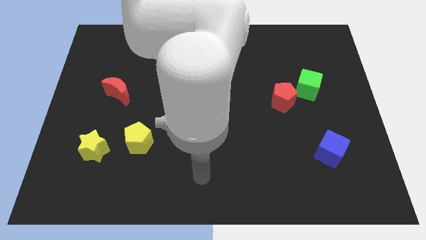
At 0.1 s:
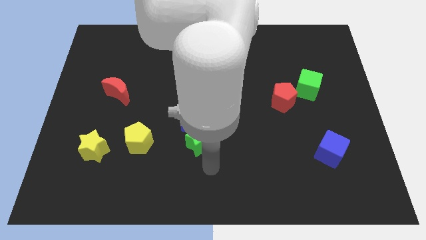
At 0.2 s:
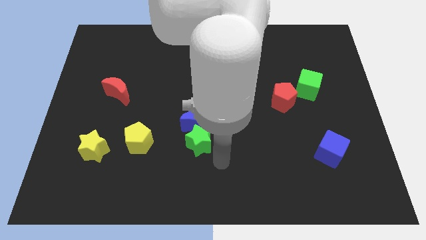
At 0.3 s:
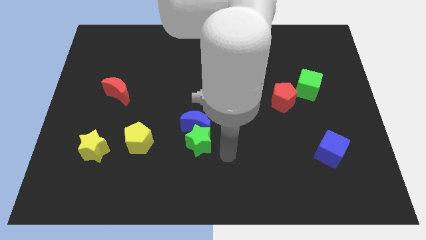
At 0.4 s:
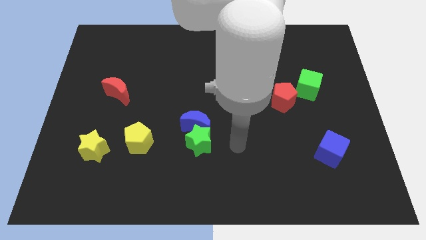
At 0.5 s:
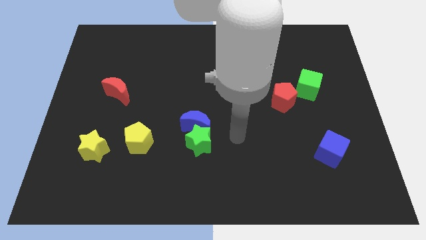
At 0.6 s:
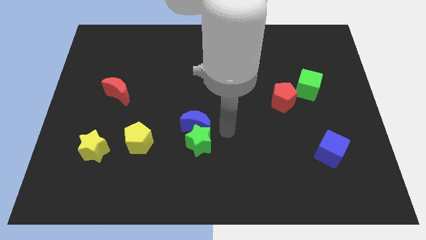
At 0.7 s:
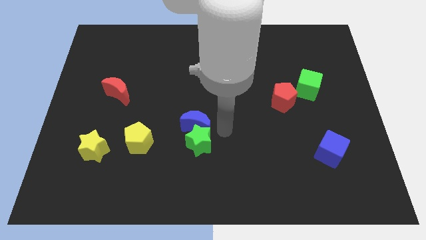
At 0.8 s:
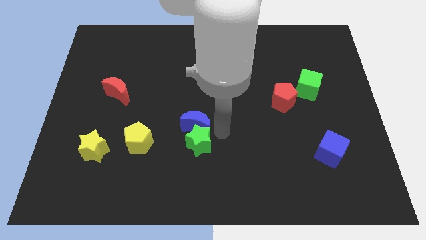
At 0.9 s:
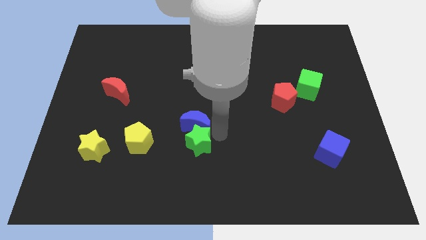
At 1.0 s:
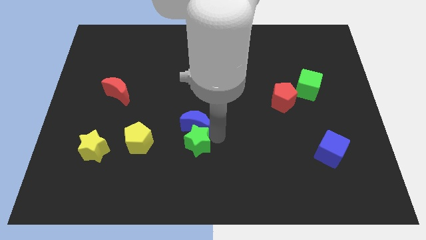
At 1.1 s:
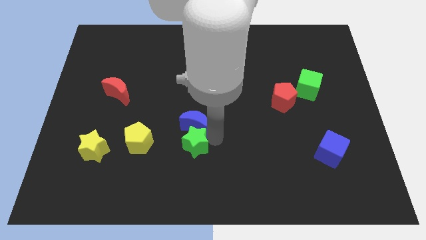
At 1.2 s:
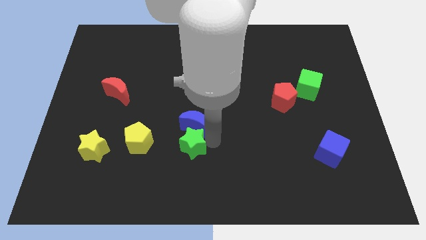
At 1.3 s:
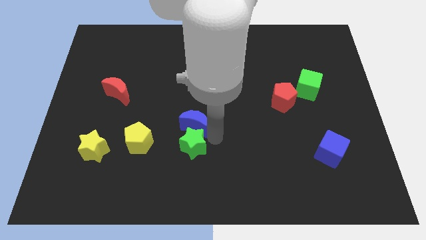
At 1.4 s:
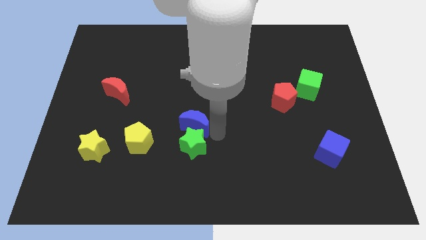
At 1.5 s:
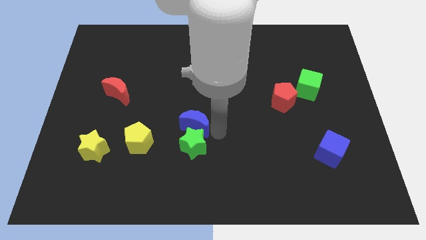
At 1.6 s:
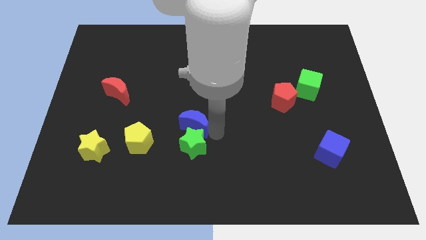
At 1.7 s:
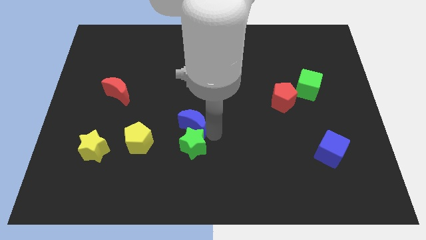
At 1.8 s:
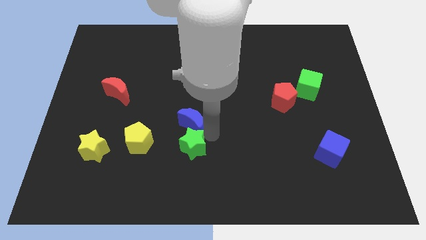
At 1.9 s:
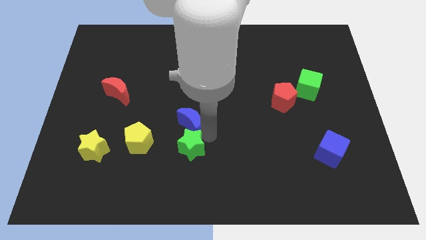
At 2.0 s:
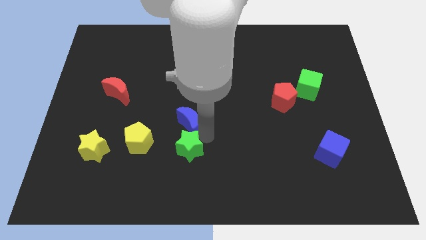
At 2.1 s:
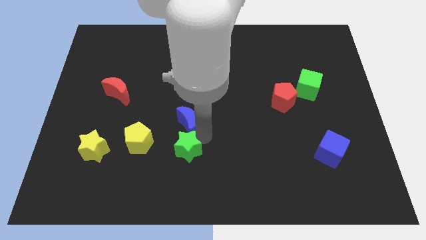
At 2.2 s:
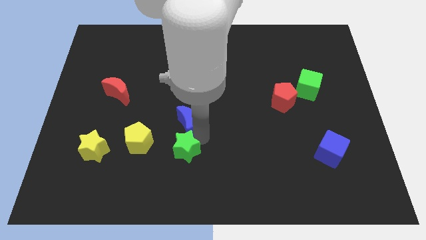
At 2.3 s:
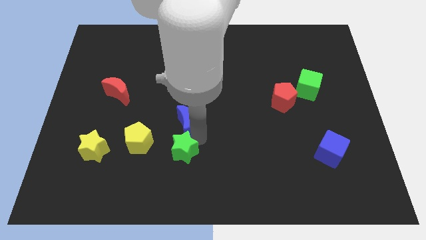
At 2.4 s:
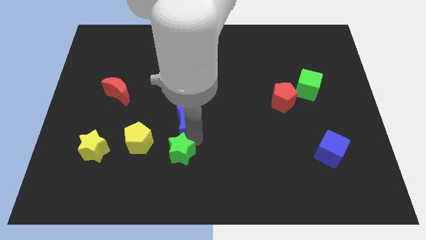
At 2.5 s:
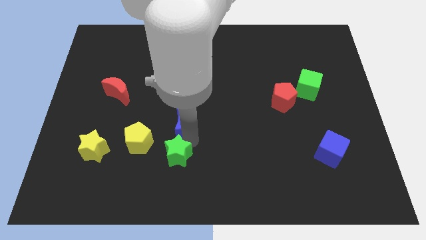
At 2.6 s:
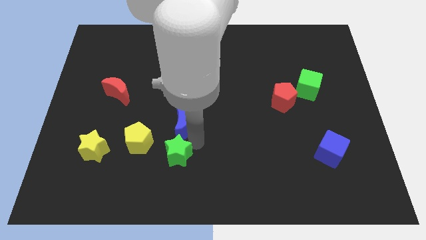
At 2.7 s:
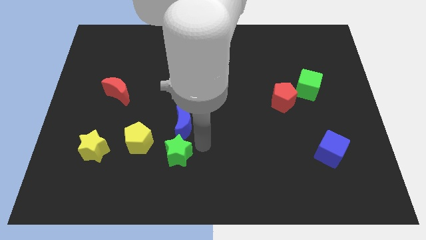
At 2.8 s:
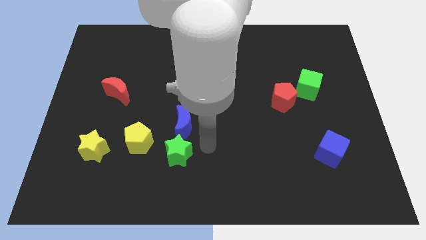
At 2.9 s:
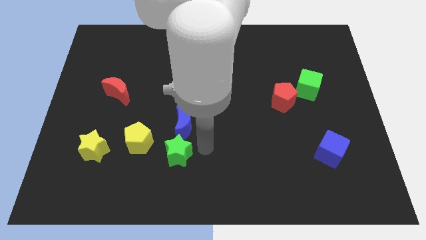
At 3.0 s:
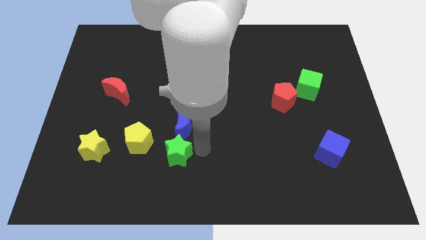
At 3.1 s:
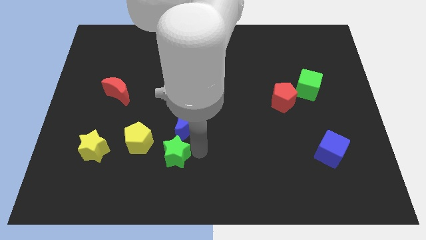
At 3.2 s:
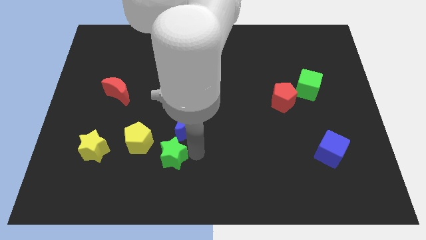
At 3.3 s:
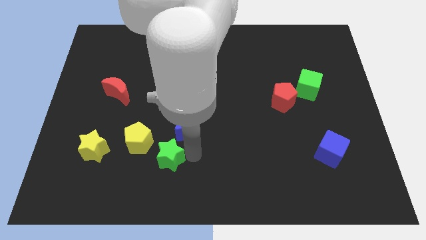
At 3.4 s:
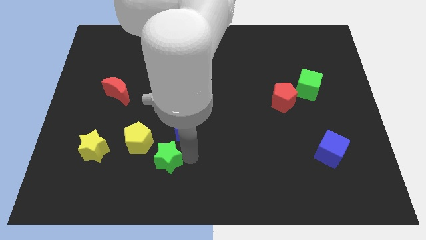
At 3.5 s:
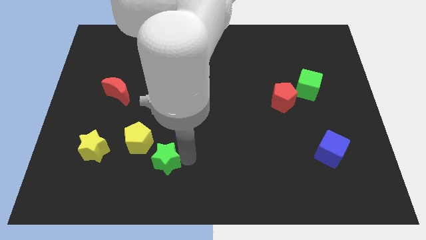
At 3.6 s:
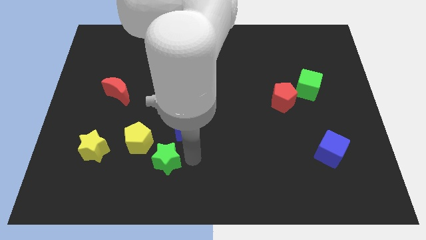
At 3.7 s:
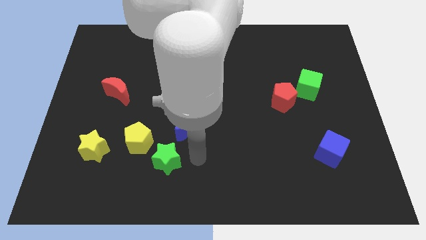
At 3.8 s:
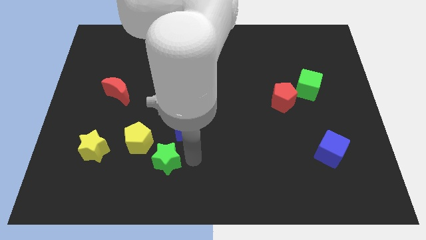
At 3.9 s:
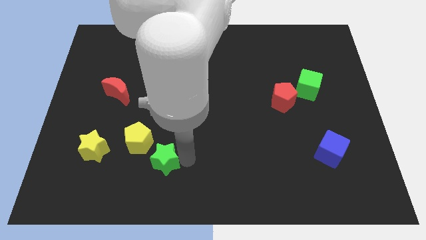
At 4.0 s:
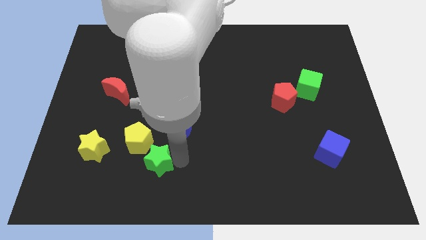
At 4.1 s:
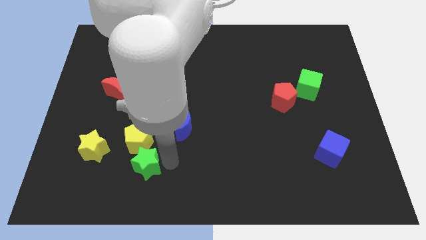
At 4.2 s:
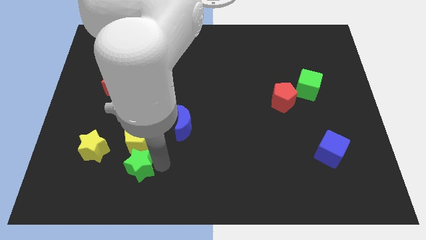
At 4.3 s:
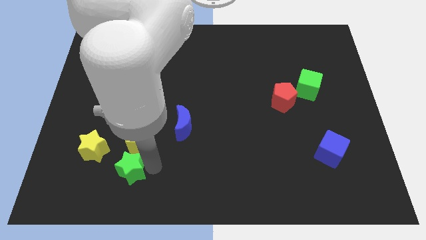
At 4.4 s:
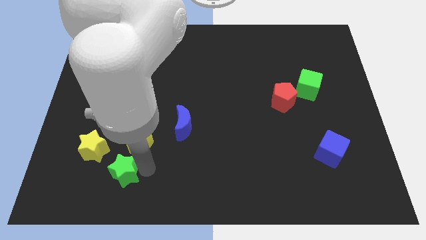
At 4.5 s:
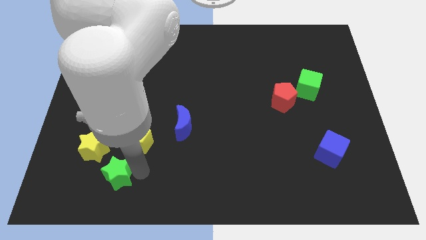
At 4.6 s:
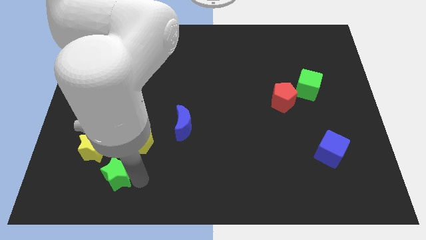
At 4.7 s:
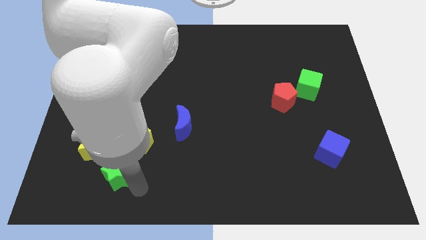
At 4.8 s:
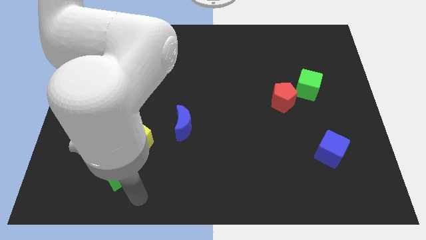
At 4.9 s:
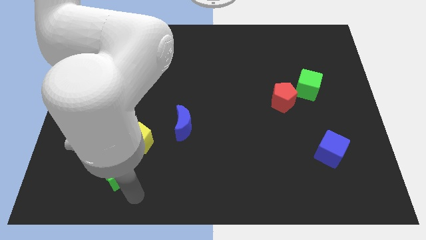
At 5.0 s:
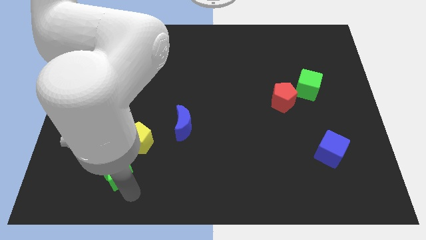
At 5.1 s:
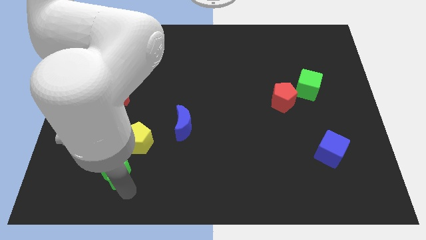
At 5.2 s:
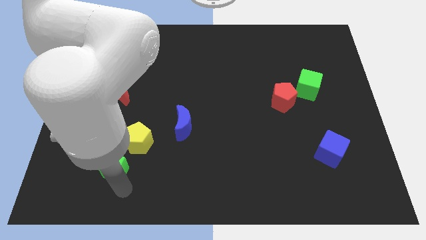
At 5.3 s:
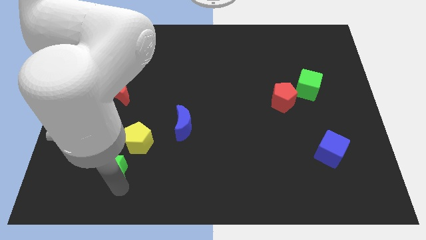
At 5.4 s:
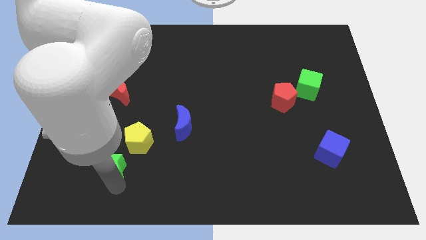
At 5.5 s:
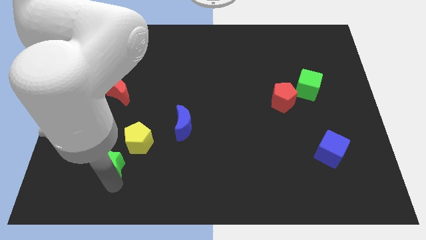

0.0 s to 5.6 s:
put the green star towards the yellow star

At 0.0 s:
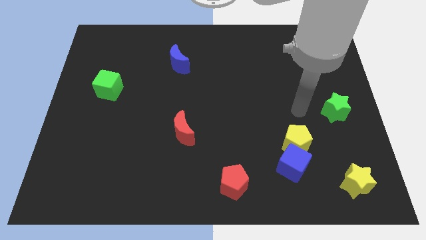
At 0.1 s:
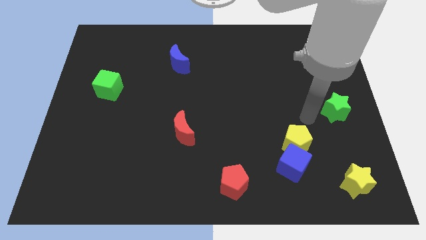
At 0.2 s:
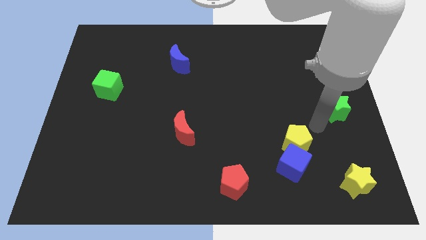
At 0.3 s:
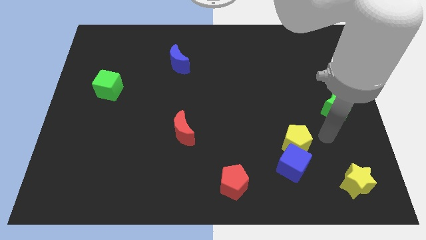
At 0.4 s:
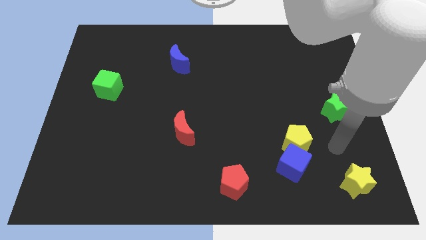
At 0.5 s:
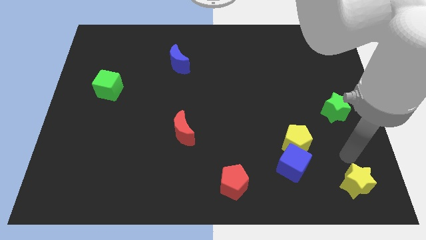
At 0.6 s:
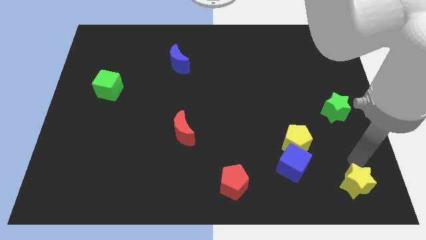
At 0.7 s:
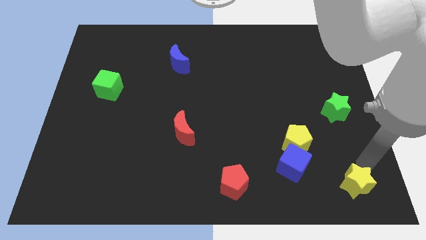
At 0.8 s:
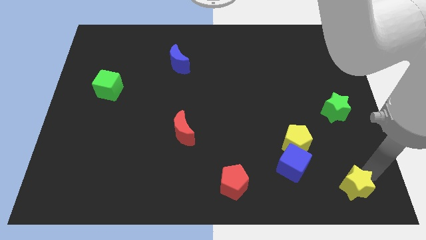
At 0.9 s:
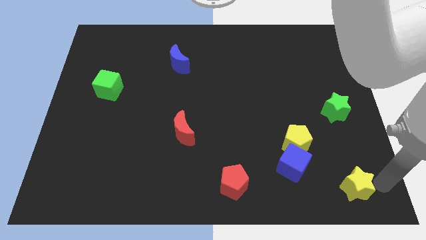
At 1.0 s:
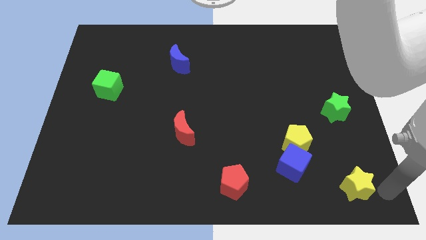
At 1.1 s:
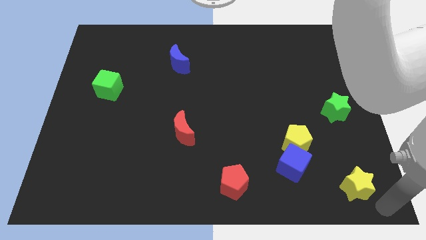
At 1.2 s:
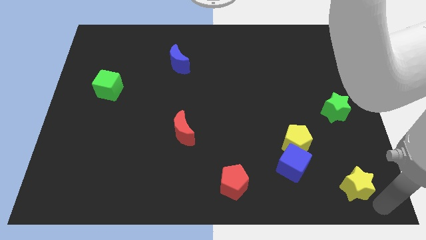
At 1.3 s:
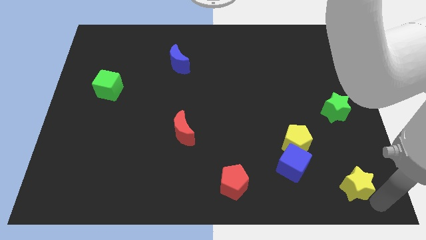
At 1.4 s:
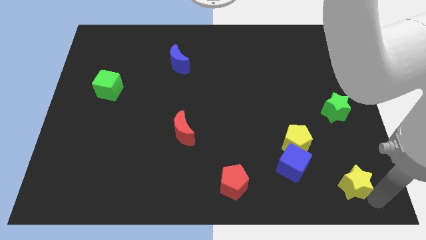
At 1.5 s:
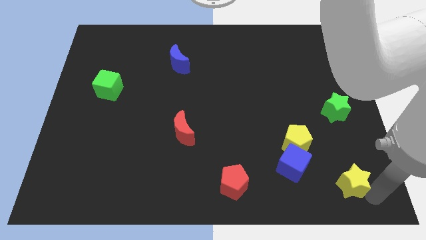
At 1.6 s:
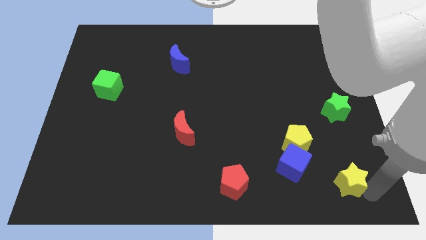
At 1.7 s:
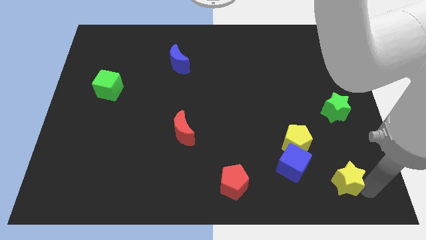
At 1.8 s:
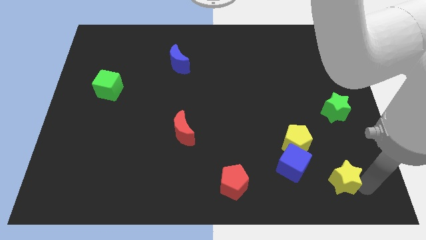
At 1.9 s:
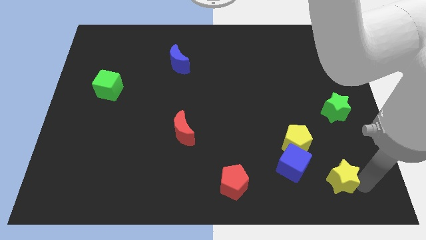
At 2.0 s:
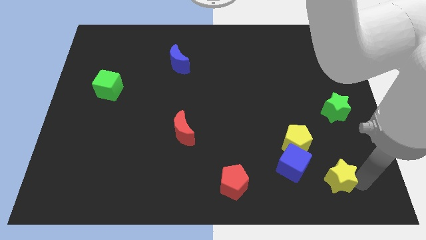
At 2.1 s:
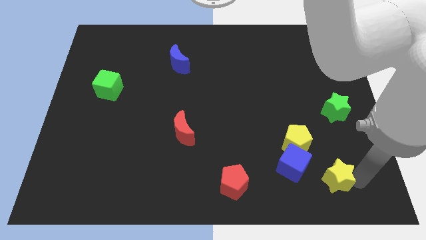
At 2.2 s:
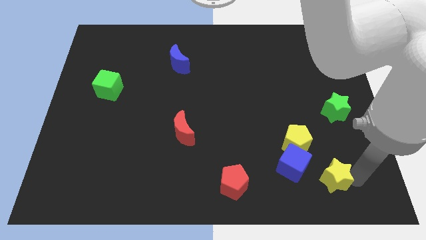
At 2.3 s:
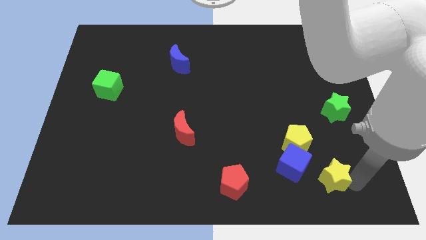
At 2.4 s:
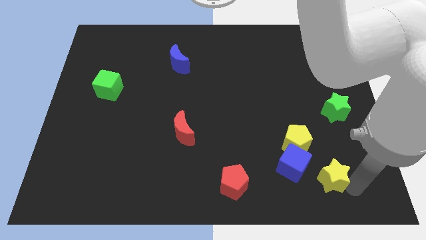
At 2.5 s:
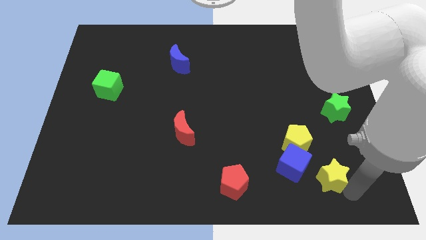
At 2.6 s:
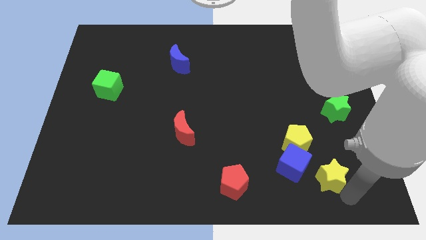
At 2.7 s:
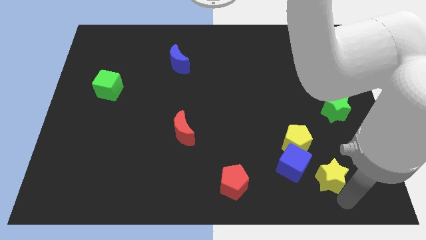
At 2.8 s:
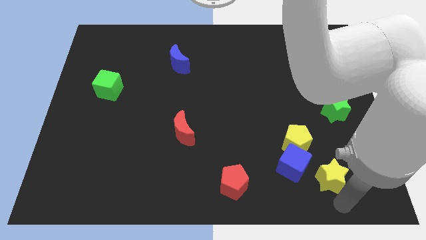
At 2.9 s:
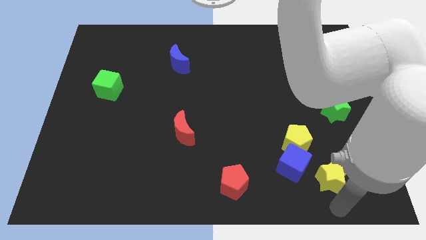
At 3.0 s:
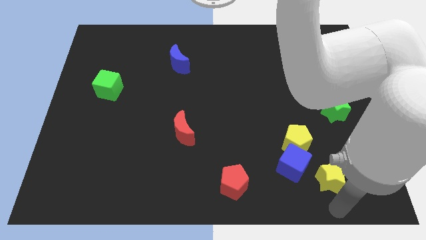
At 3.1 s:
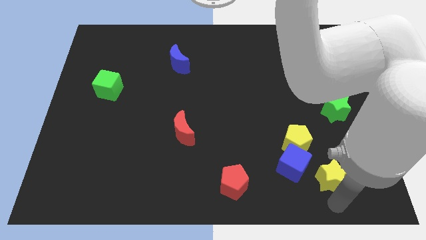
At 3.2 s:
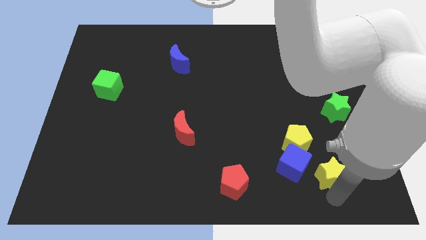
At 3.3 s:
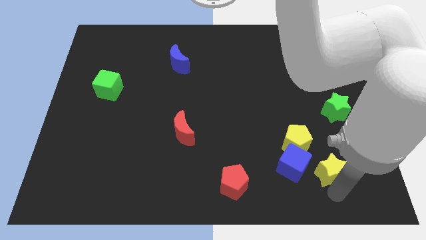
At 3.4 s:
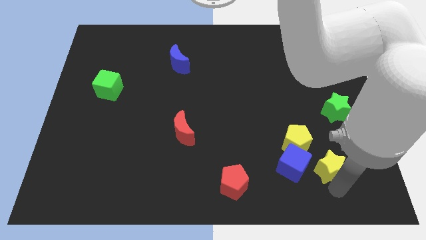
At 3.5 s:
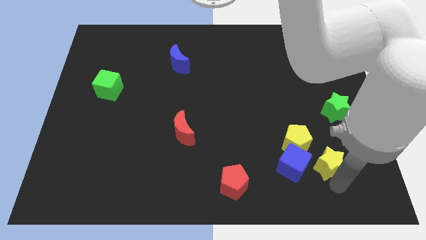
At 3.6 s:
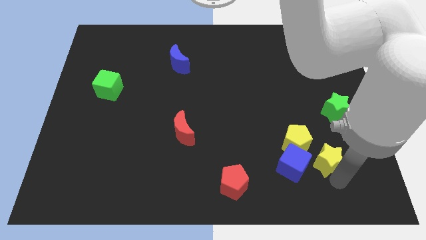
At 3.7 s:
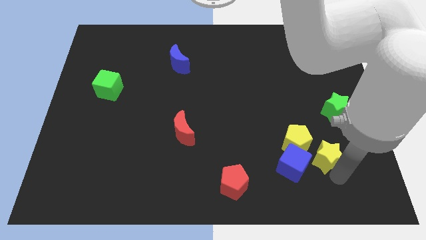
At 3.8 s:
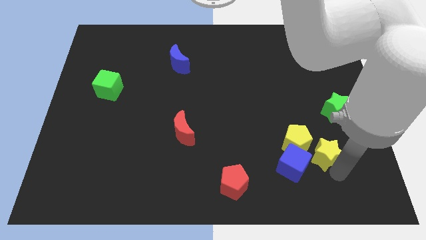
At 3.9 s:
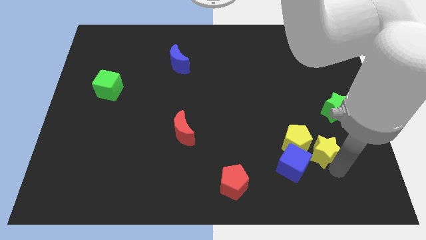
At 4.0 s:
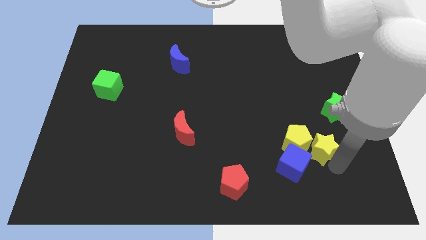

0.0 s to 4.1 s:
put the yellow star next to the yellow pentagon
